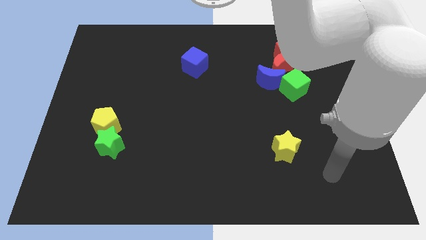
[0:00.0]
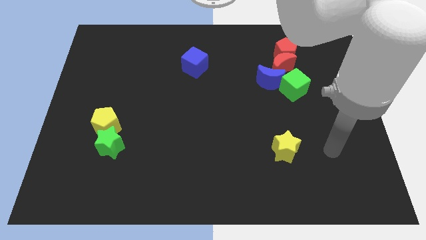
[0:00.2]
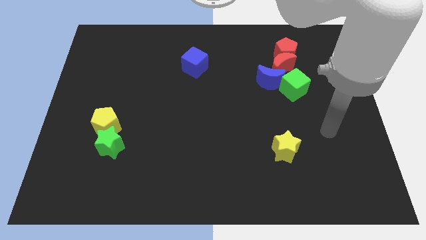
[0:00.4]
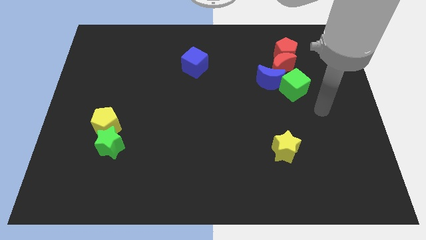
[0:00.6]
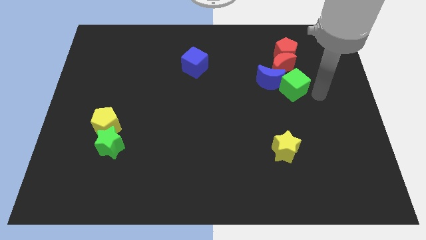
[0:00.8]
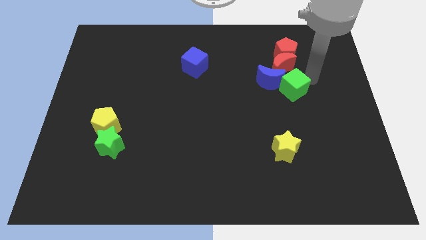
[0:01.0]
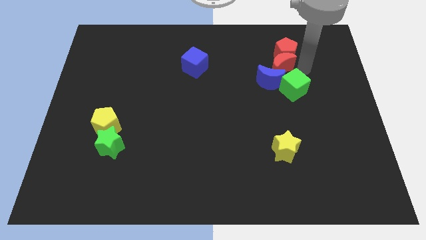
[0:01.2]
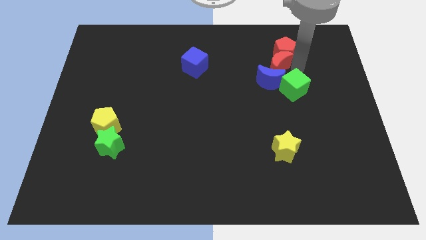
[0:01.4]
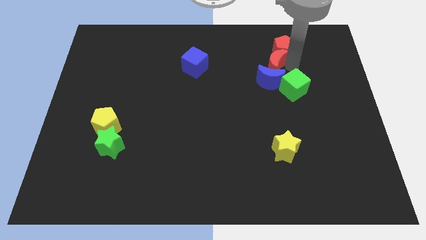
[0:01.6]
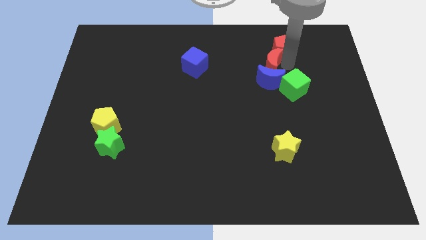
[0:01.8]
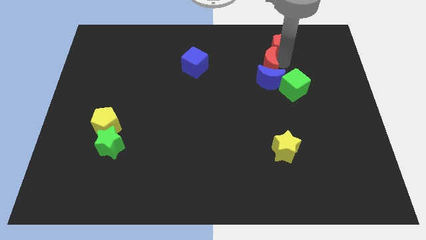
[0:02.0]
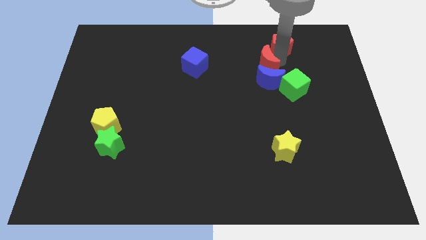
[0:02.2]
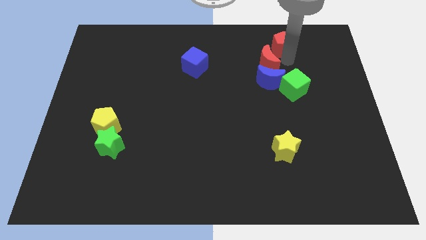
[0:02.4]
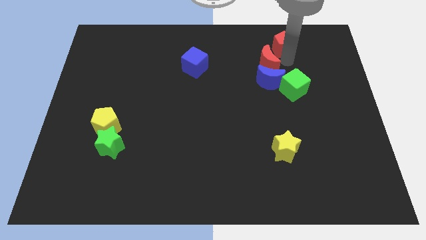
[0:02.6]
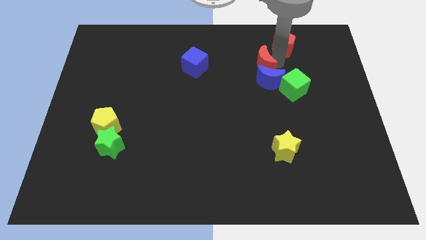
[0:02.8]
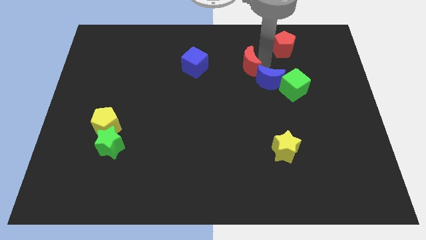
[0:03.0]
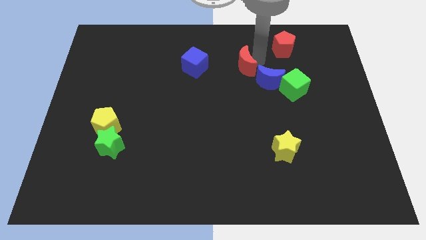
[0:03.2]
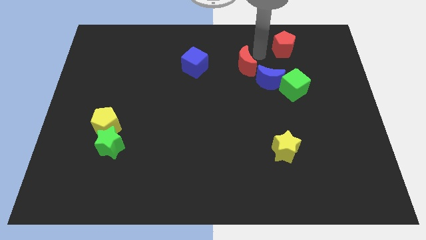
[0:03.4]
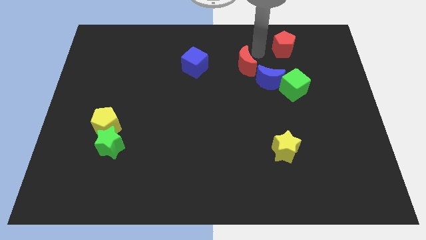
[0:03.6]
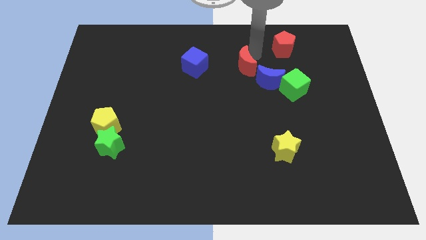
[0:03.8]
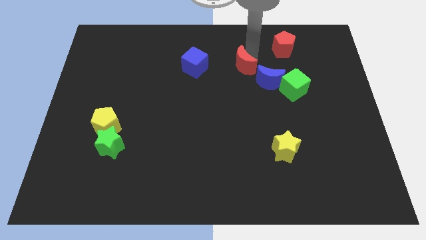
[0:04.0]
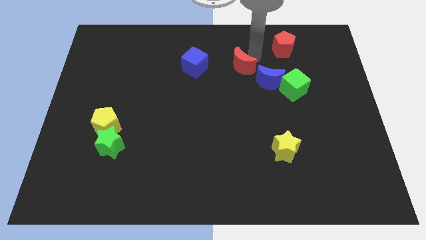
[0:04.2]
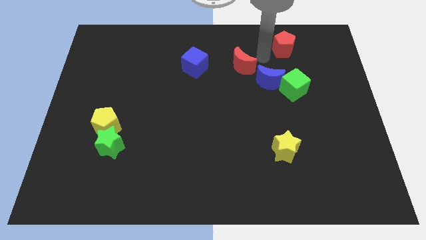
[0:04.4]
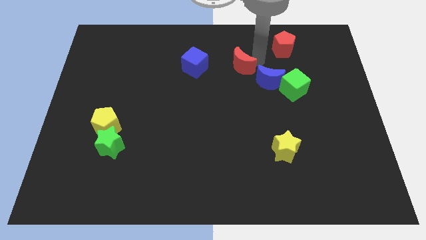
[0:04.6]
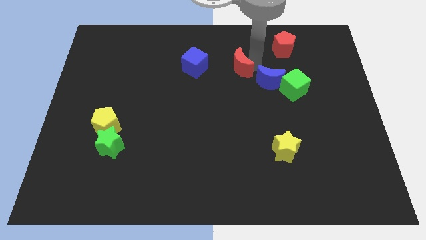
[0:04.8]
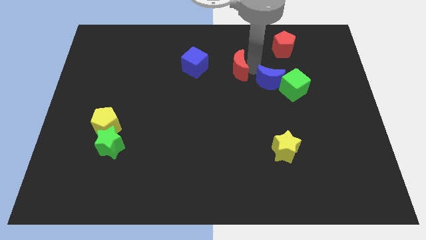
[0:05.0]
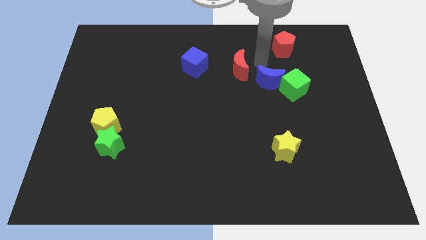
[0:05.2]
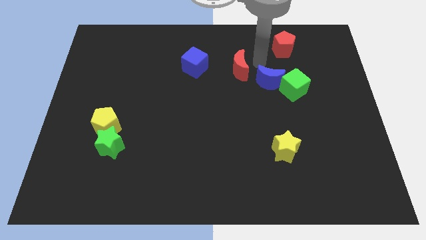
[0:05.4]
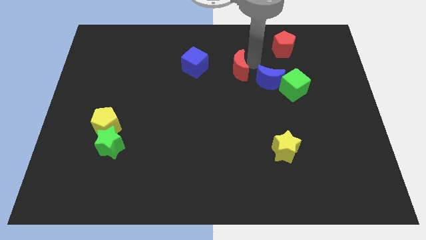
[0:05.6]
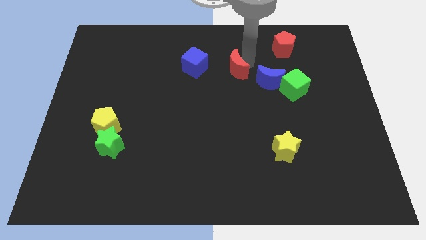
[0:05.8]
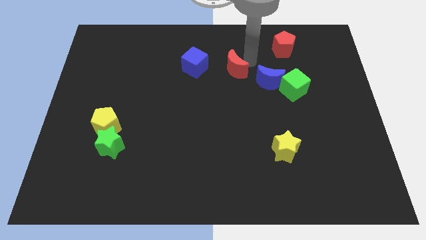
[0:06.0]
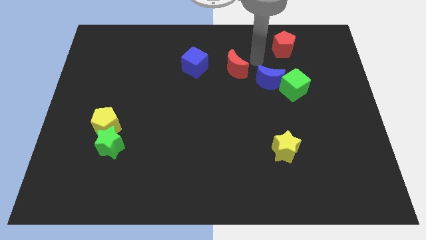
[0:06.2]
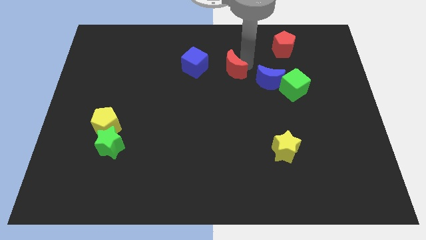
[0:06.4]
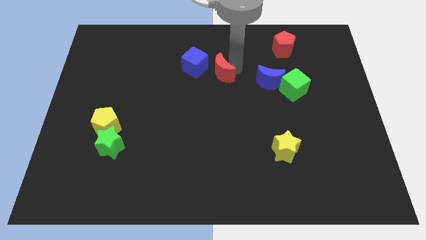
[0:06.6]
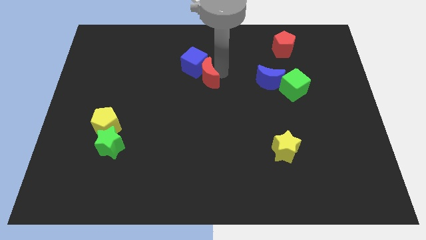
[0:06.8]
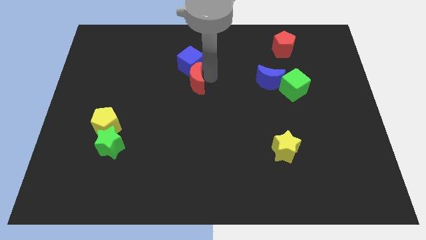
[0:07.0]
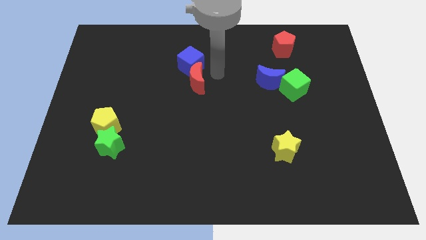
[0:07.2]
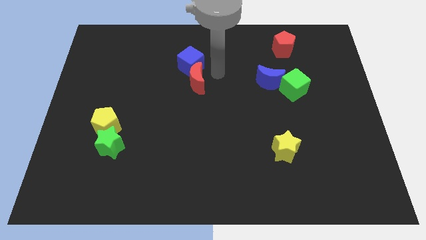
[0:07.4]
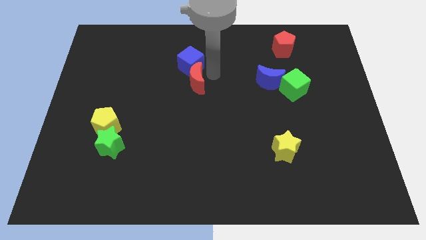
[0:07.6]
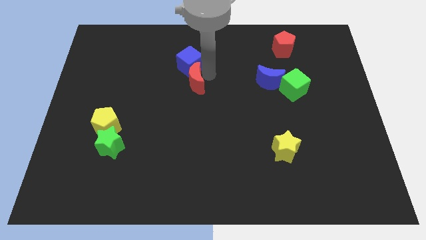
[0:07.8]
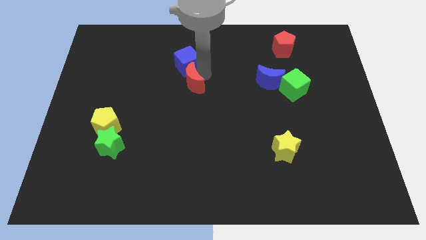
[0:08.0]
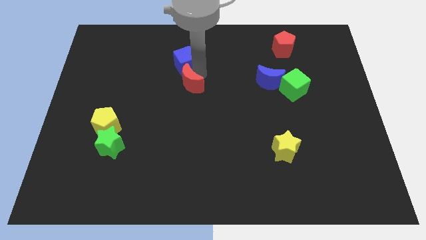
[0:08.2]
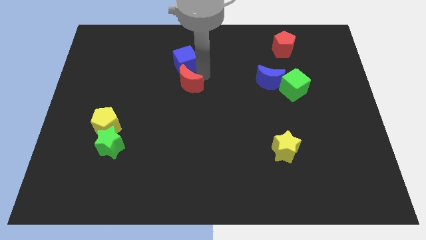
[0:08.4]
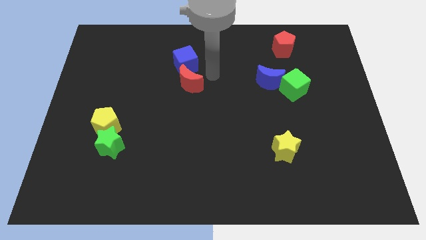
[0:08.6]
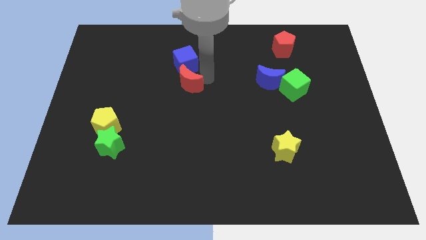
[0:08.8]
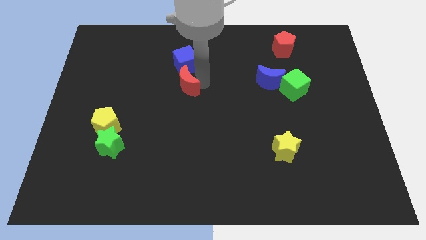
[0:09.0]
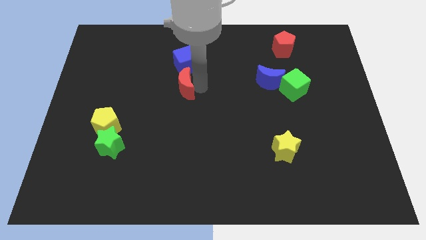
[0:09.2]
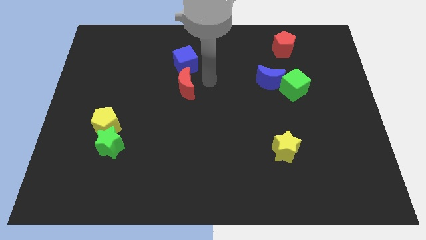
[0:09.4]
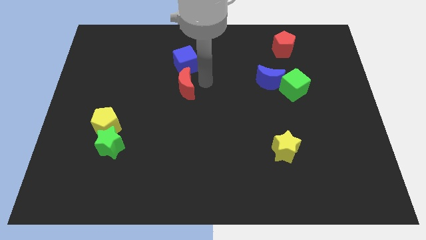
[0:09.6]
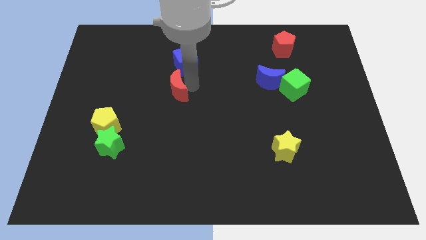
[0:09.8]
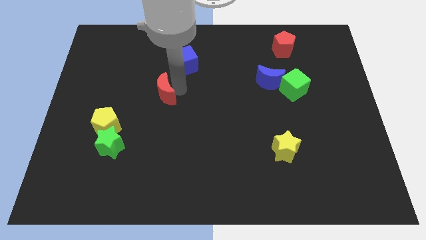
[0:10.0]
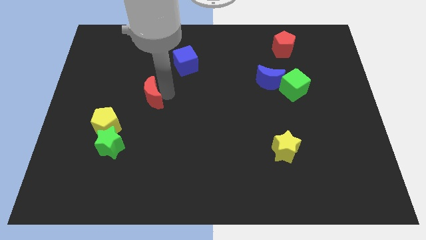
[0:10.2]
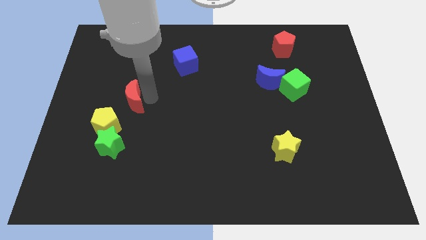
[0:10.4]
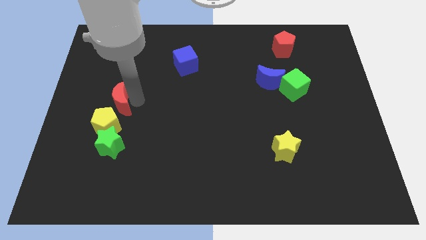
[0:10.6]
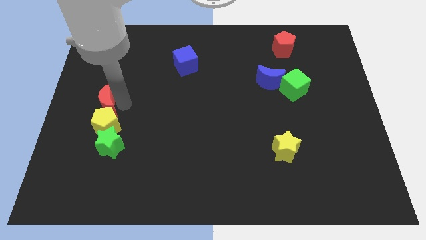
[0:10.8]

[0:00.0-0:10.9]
push the red moon to the center left
